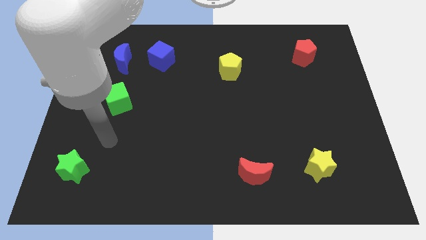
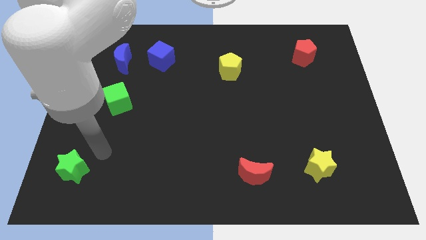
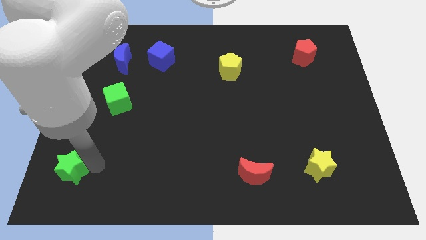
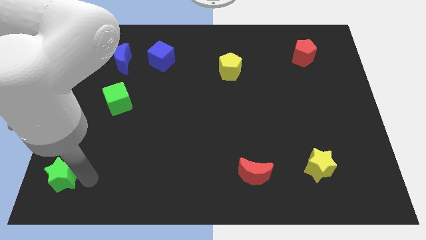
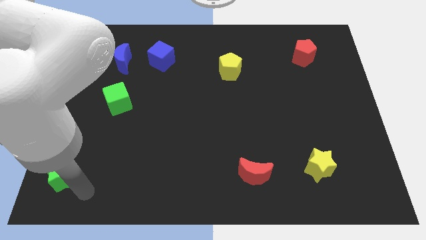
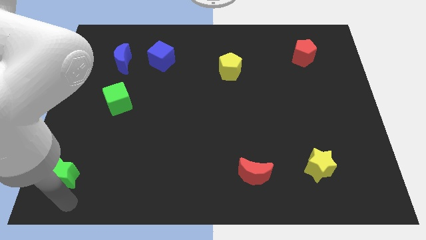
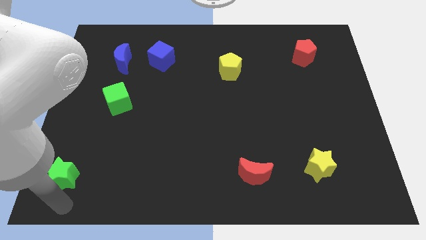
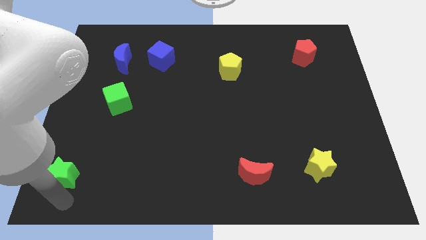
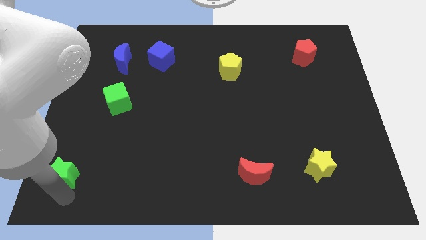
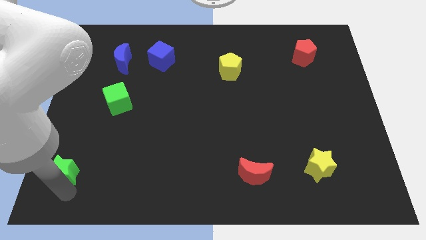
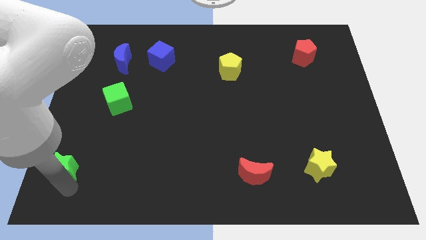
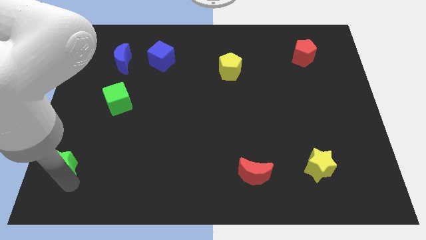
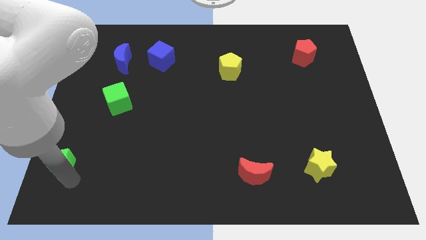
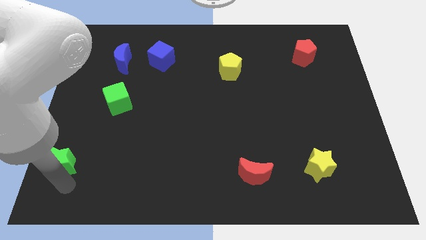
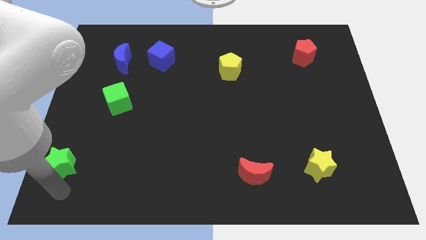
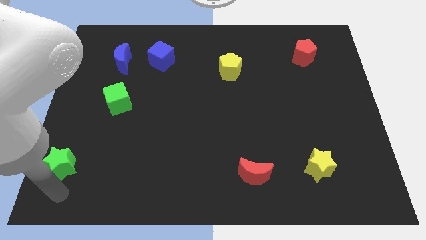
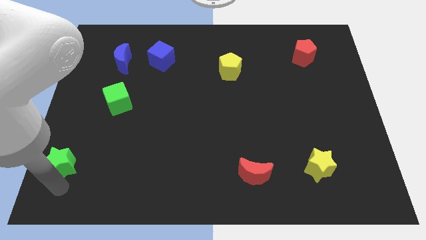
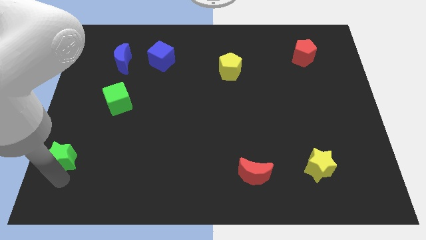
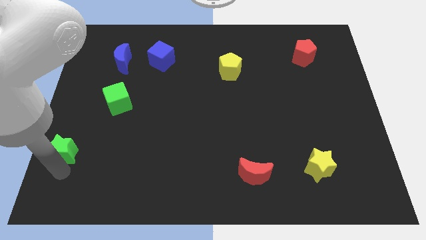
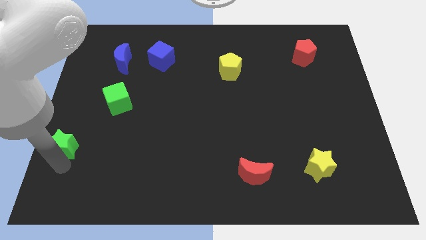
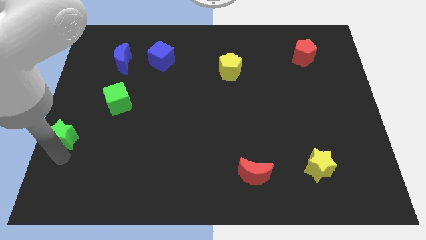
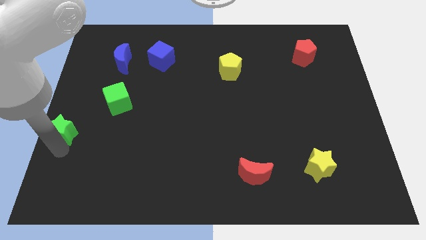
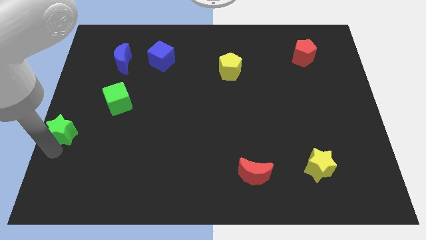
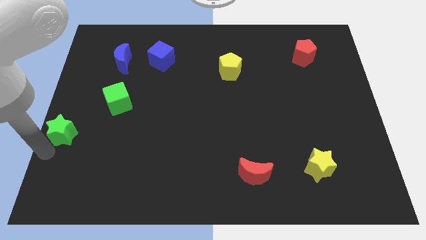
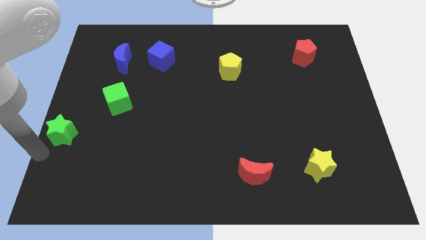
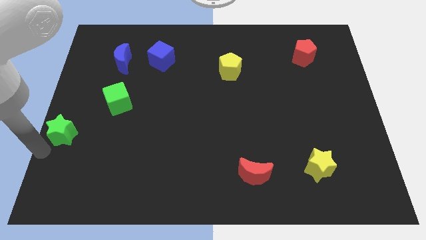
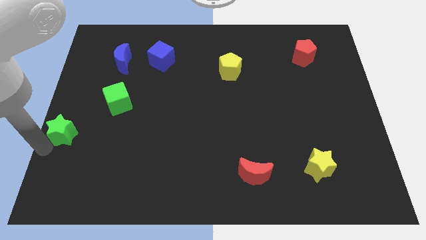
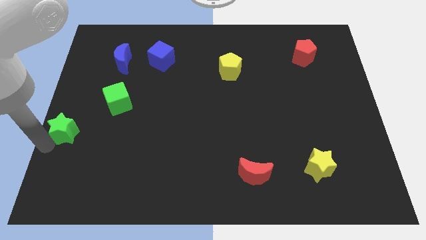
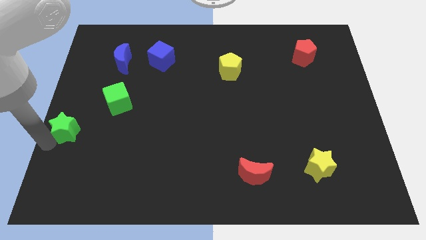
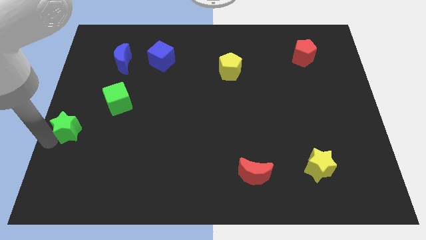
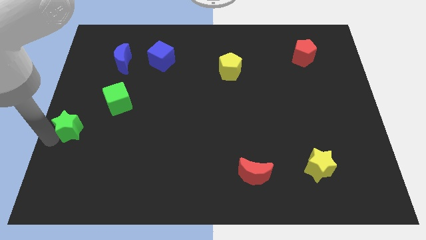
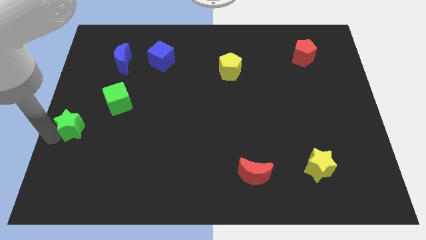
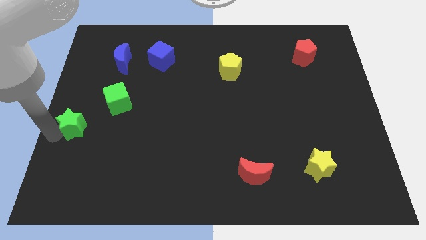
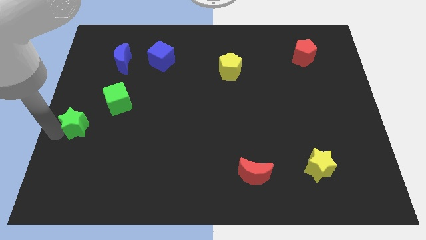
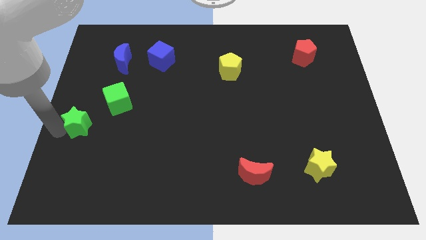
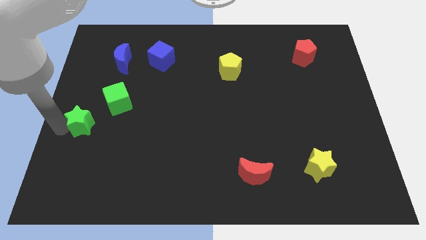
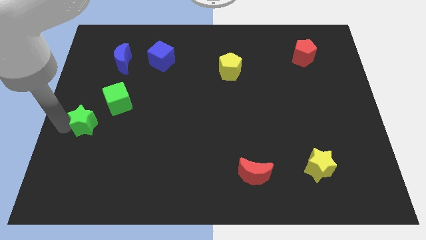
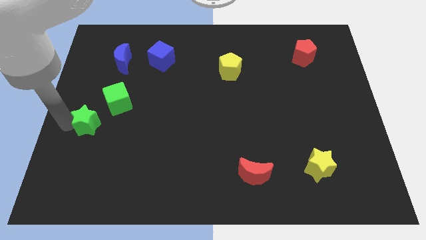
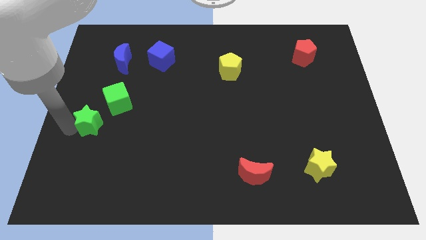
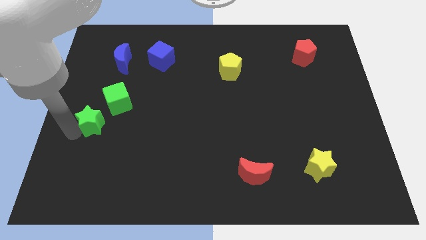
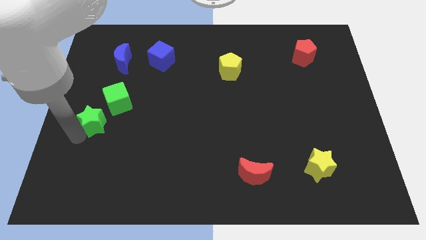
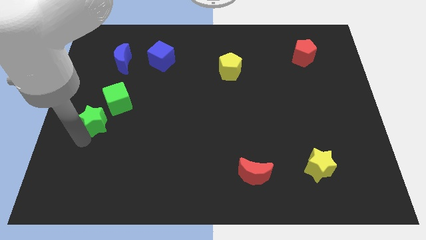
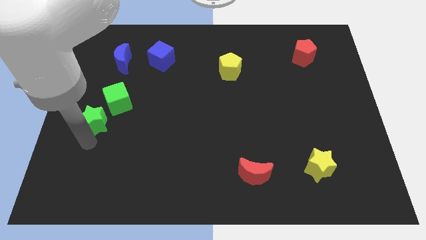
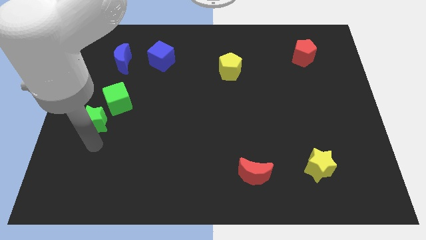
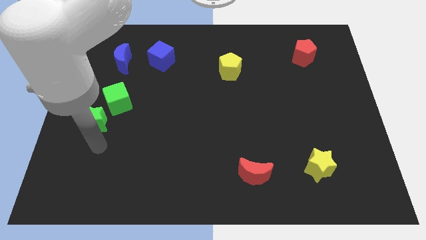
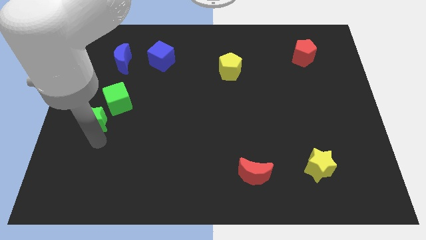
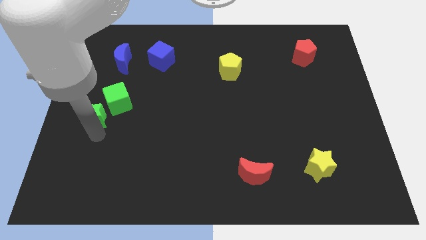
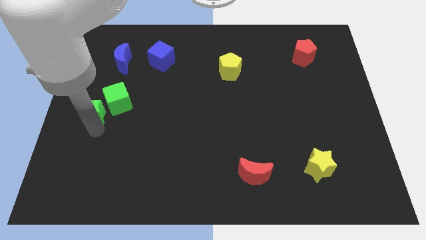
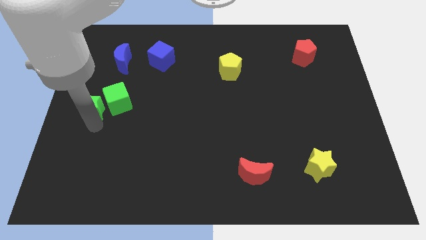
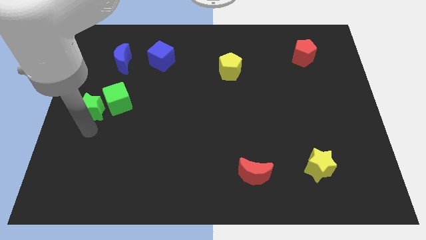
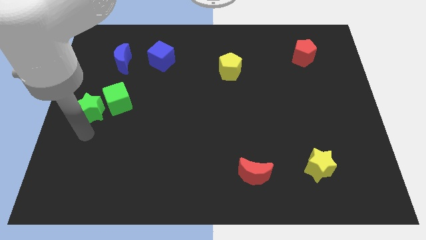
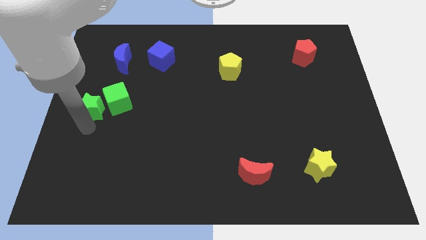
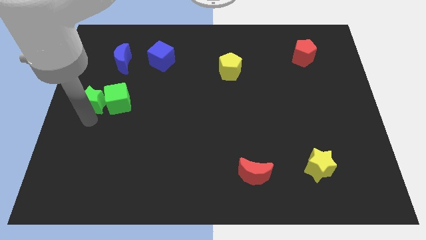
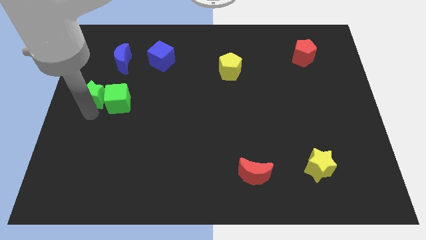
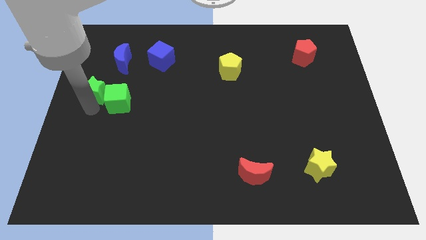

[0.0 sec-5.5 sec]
push the green star upwards

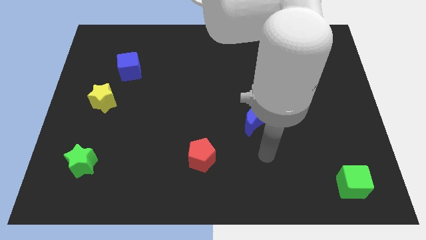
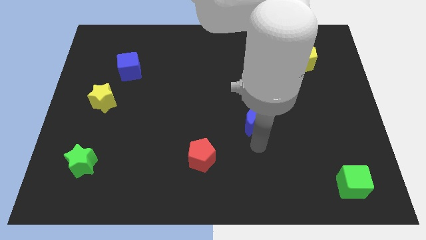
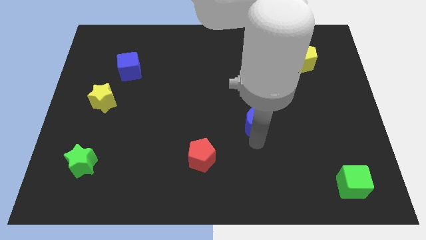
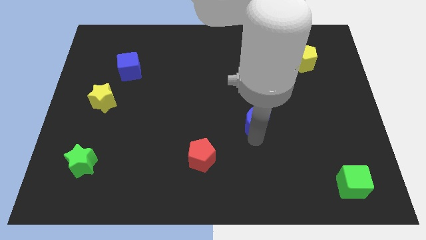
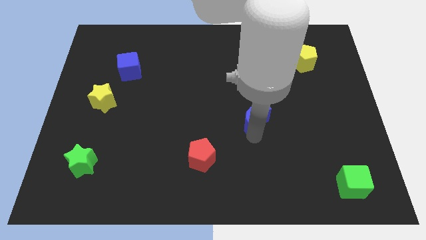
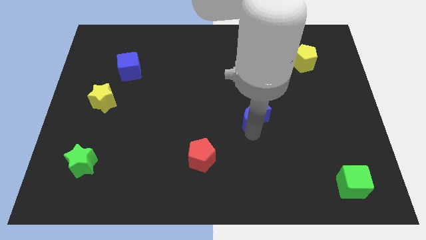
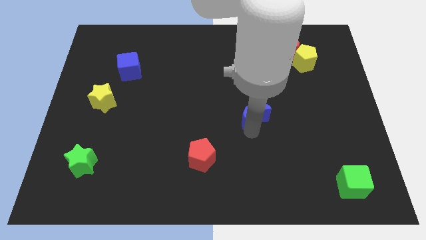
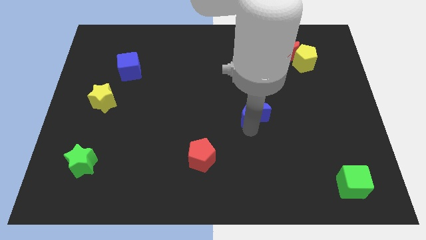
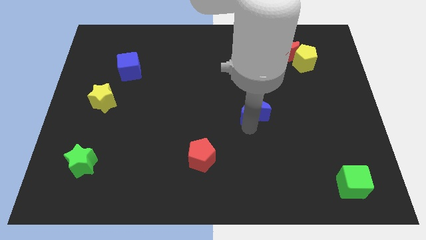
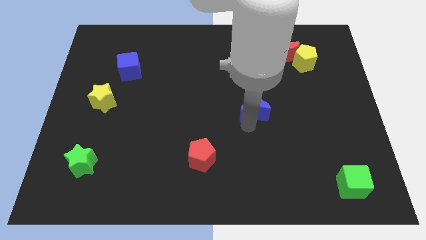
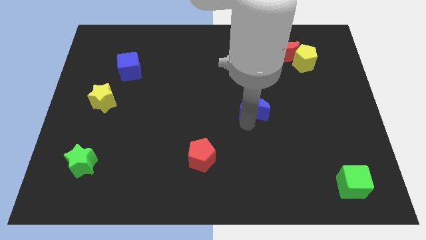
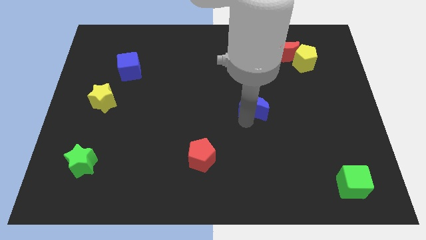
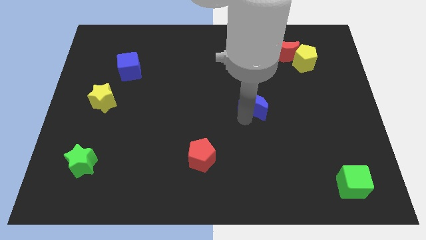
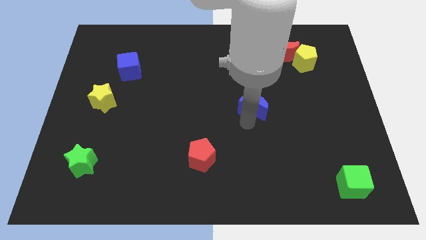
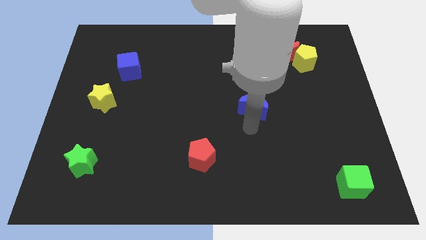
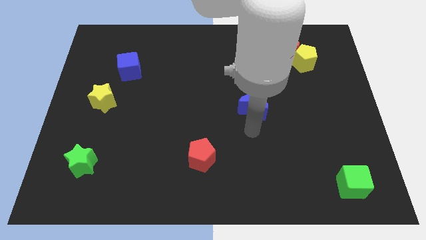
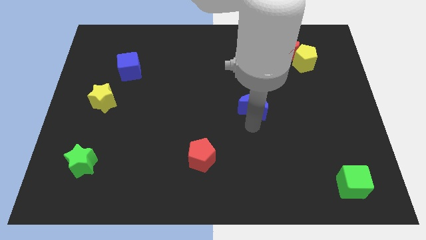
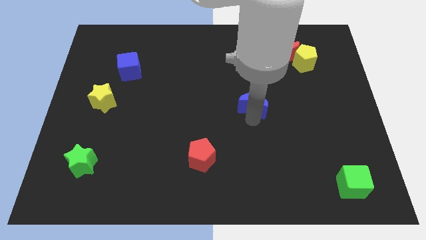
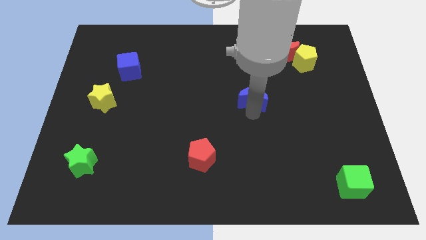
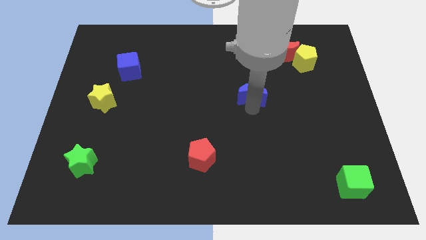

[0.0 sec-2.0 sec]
slide the blue moon up somewhat

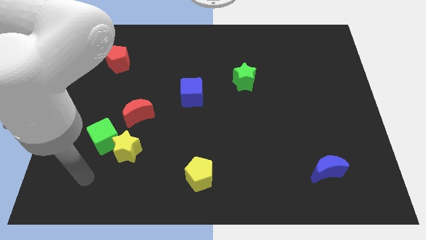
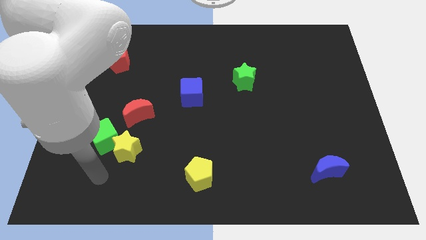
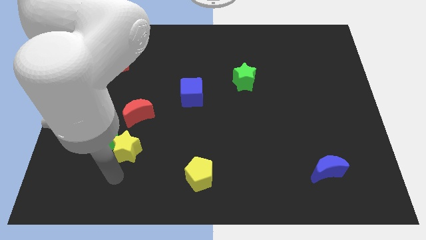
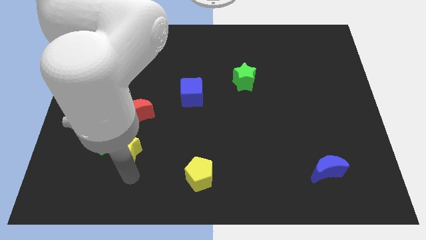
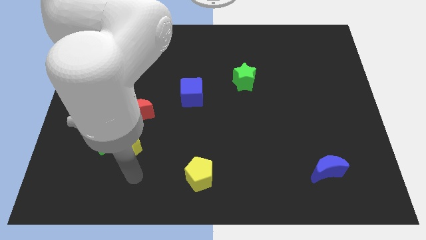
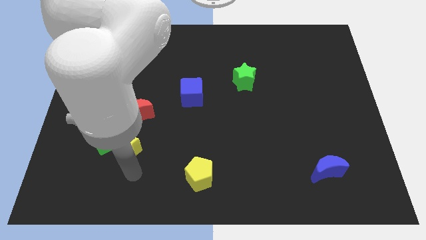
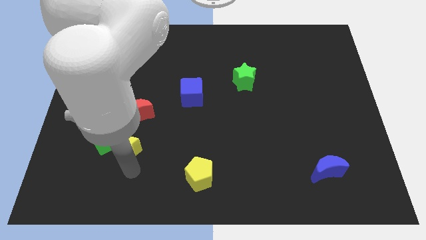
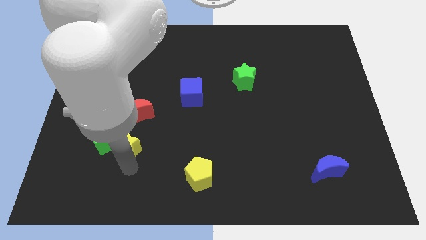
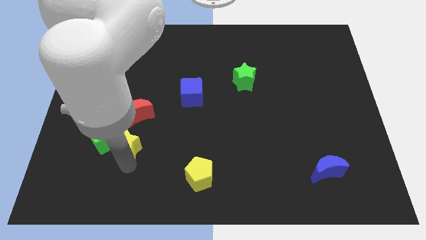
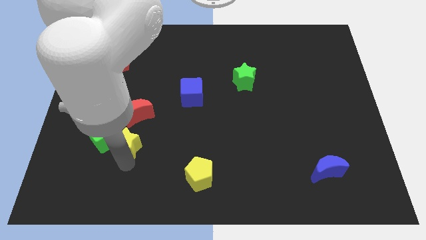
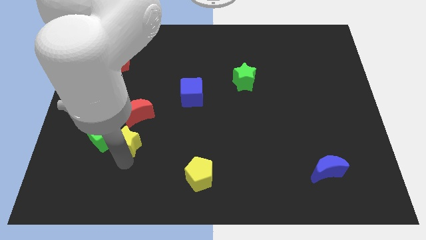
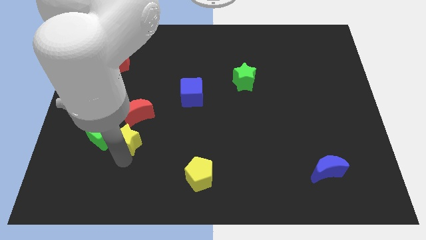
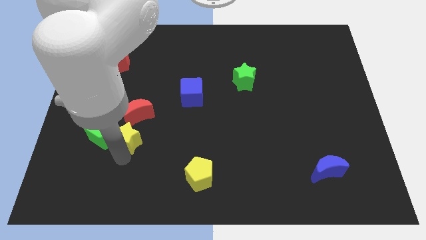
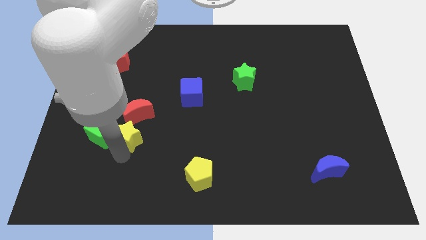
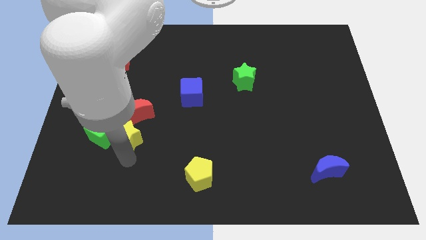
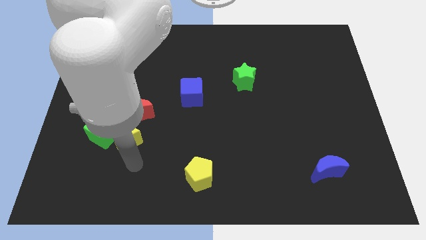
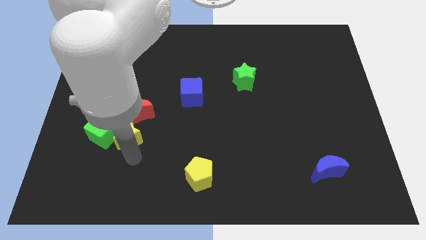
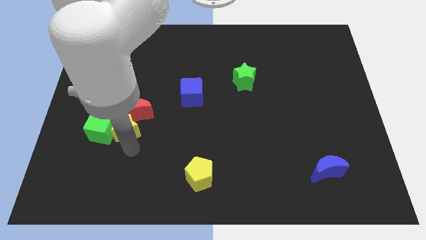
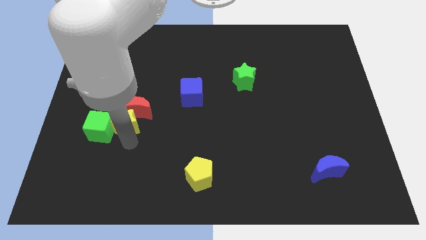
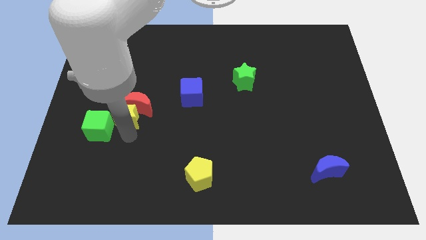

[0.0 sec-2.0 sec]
slightly slide the yellow star up
